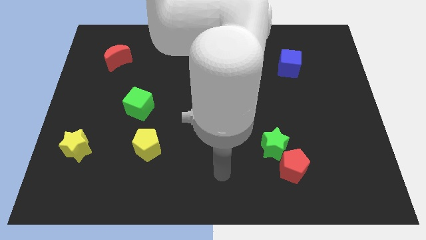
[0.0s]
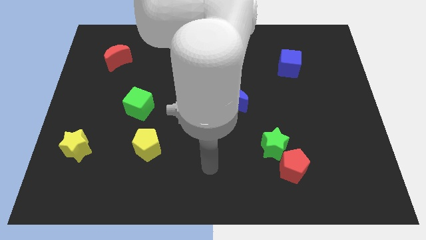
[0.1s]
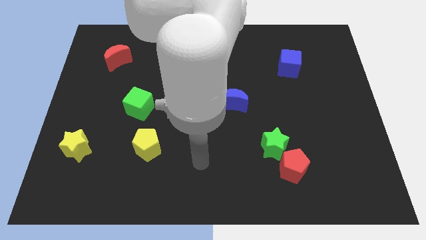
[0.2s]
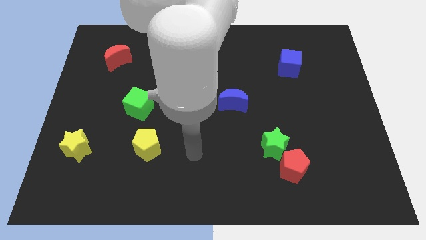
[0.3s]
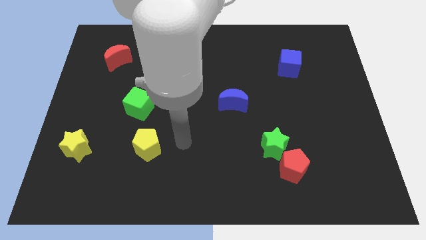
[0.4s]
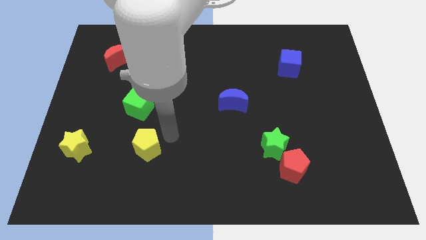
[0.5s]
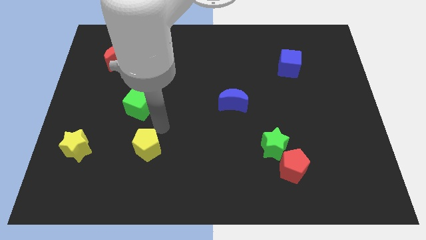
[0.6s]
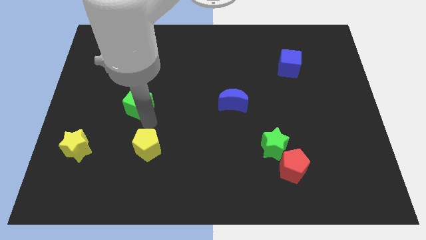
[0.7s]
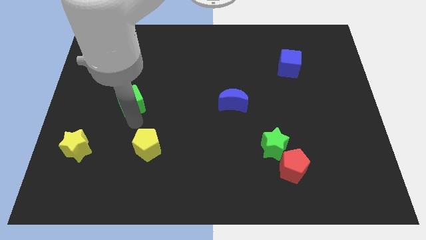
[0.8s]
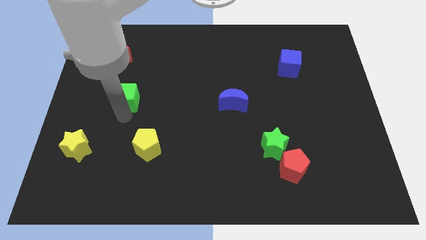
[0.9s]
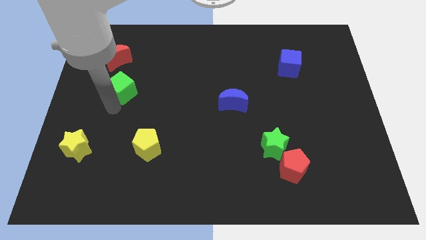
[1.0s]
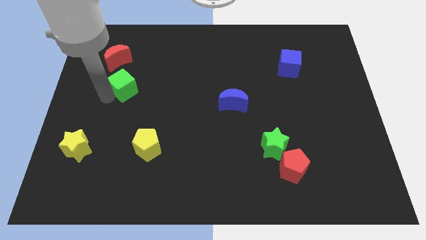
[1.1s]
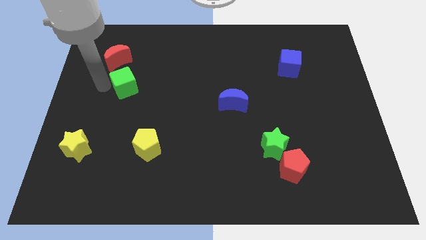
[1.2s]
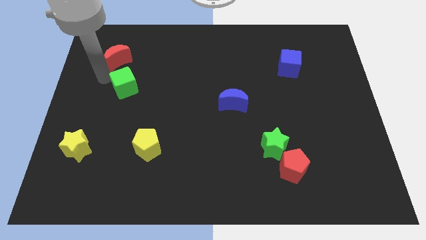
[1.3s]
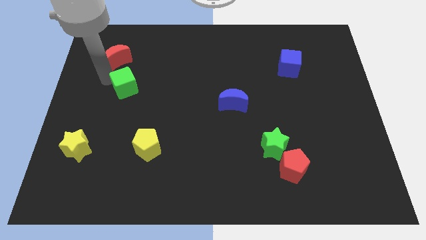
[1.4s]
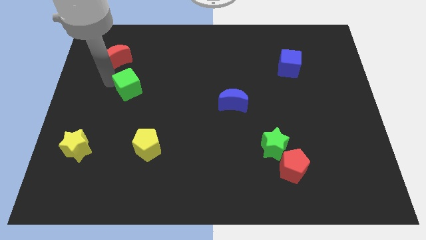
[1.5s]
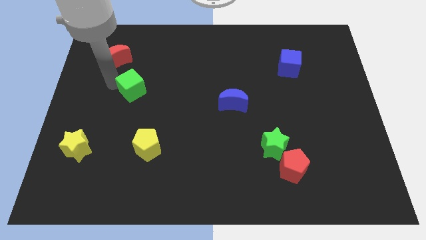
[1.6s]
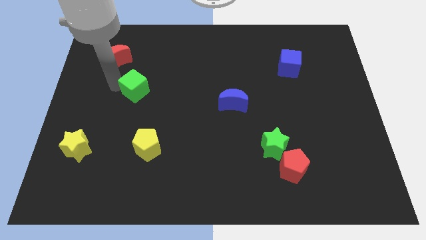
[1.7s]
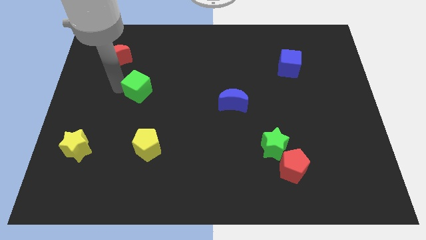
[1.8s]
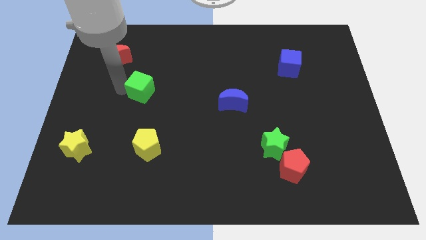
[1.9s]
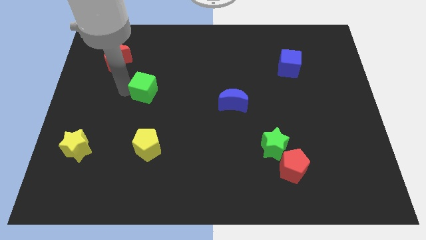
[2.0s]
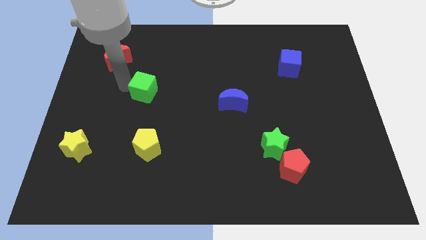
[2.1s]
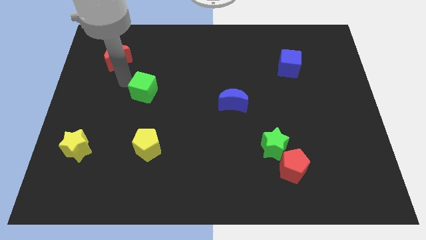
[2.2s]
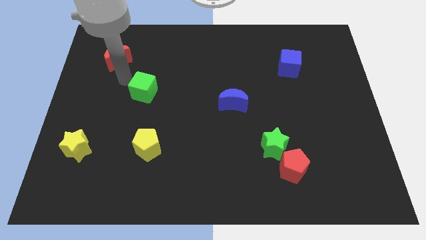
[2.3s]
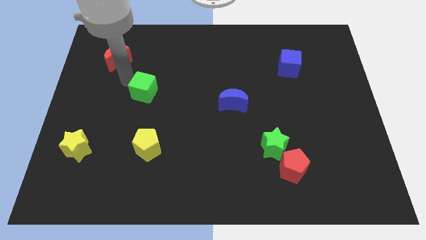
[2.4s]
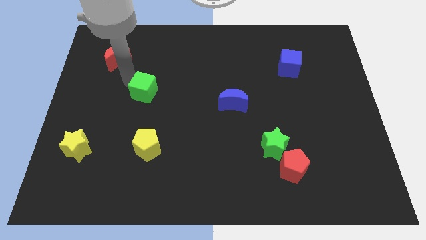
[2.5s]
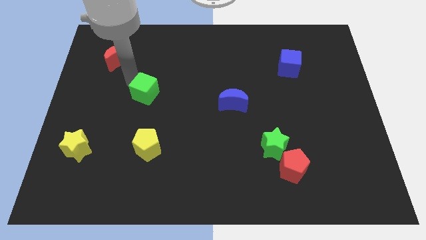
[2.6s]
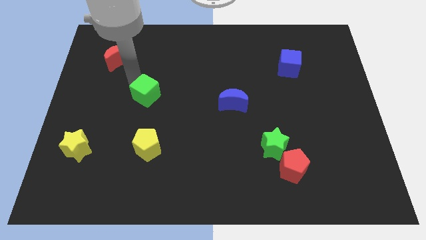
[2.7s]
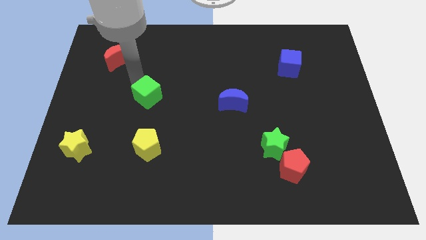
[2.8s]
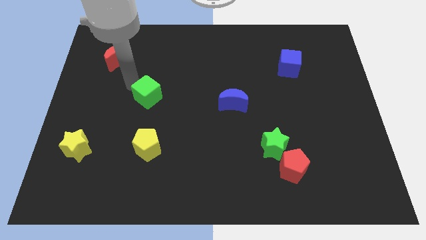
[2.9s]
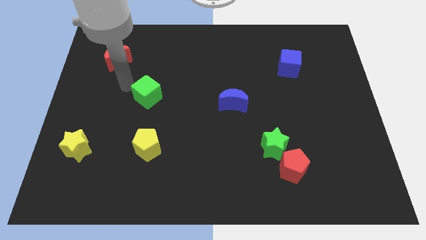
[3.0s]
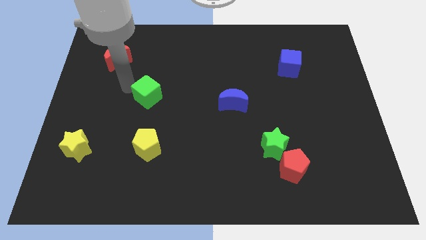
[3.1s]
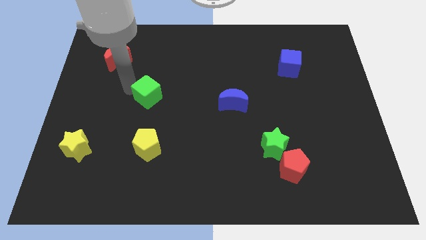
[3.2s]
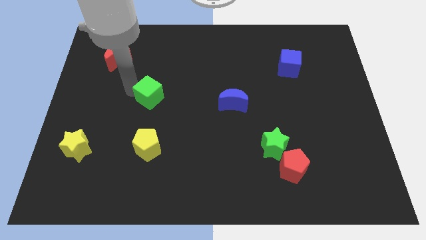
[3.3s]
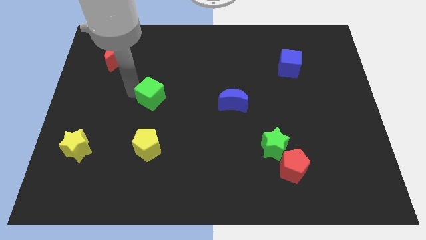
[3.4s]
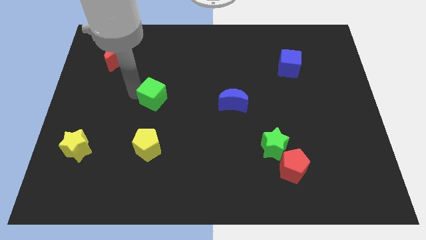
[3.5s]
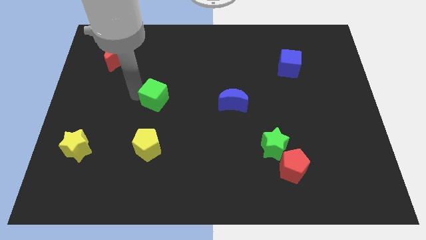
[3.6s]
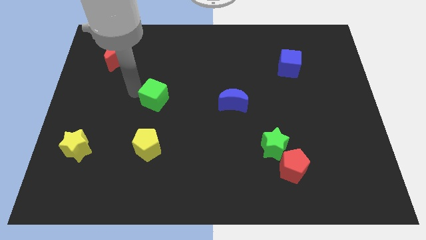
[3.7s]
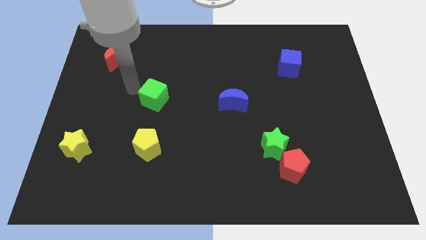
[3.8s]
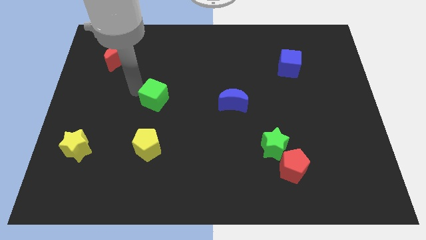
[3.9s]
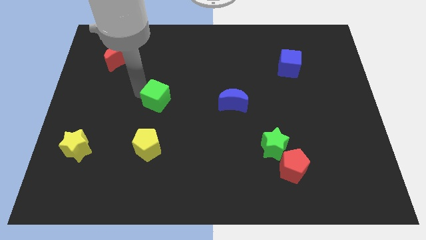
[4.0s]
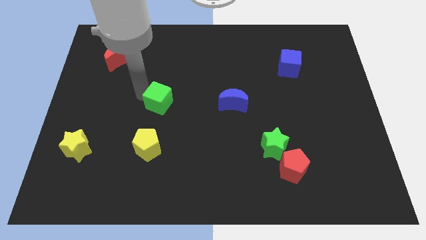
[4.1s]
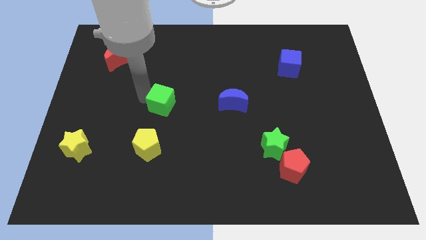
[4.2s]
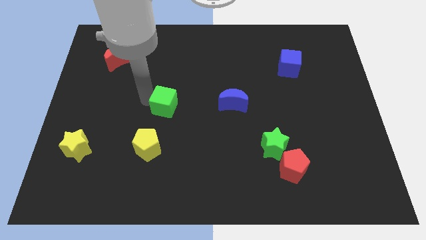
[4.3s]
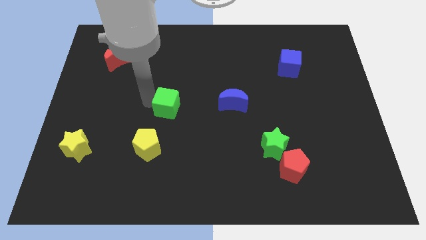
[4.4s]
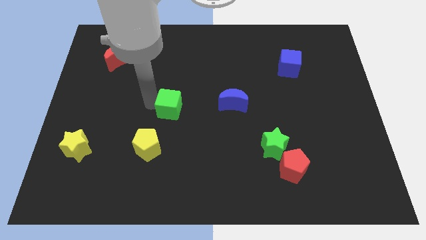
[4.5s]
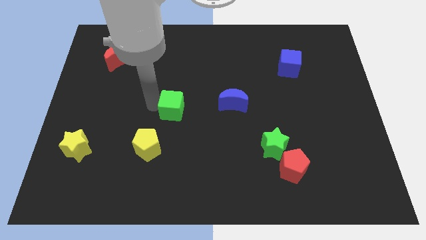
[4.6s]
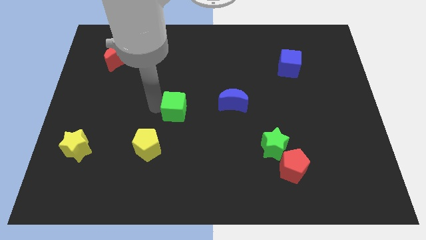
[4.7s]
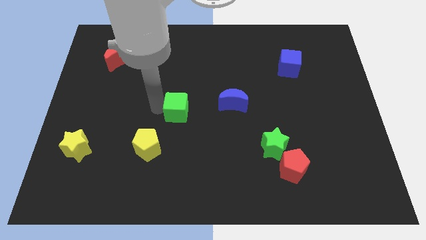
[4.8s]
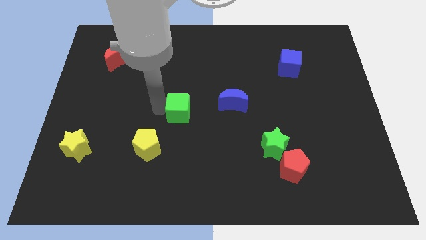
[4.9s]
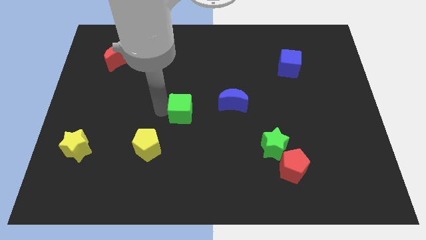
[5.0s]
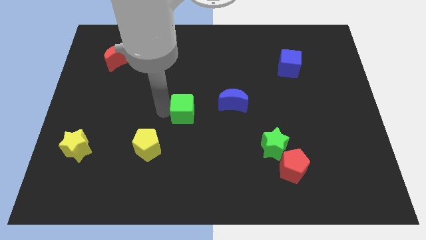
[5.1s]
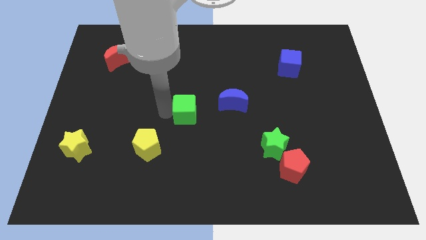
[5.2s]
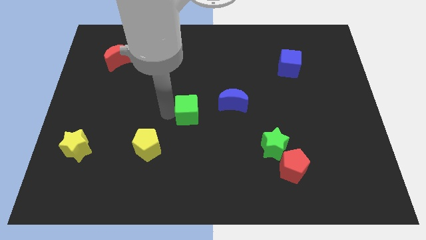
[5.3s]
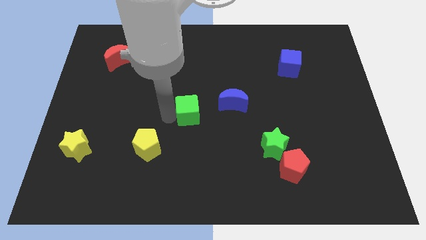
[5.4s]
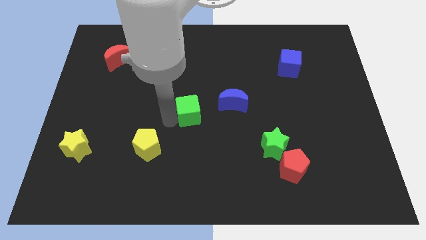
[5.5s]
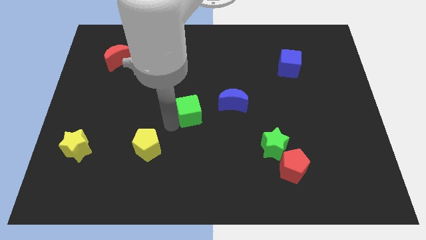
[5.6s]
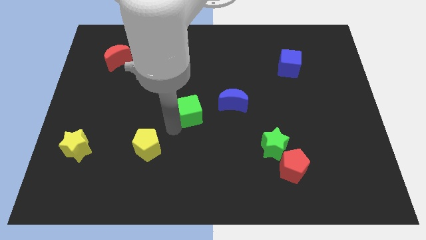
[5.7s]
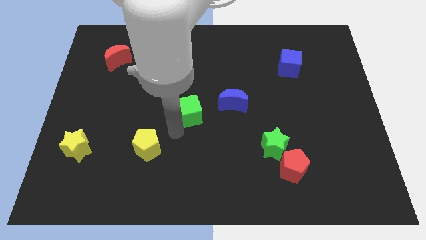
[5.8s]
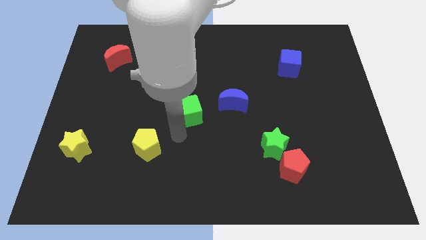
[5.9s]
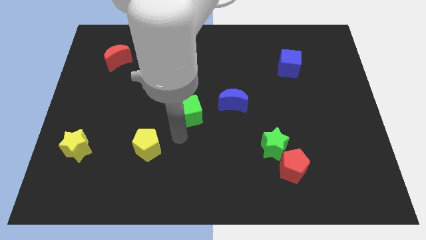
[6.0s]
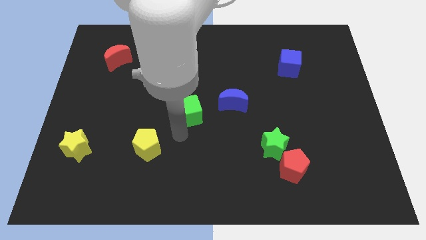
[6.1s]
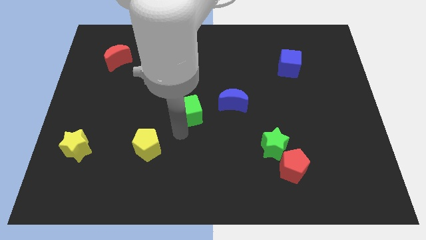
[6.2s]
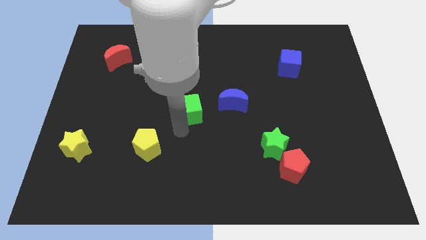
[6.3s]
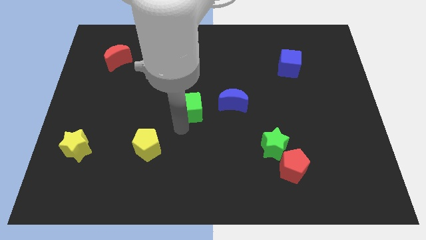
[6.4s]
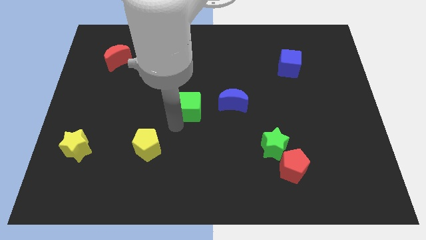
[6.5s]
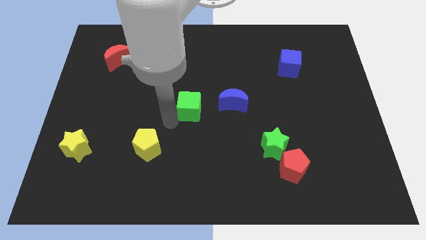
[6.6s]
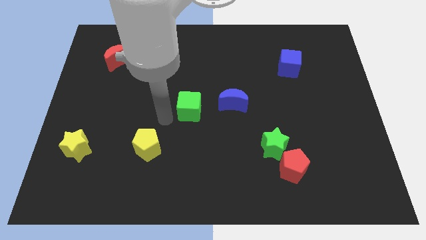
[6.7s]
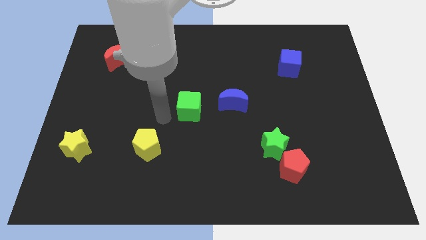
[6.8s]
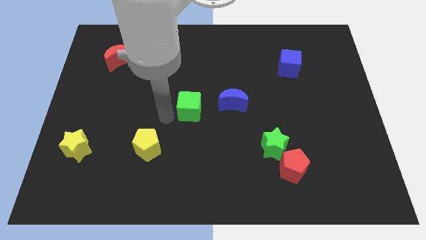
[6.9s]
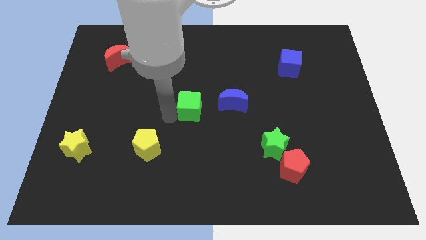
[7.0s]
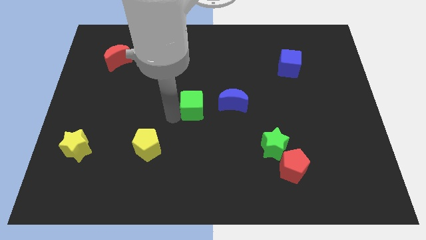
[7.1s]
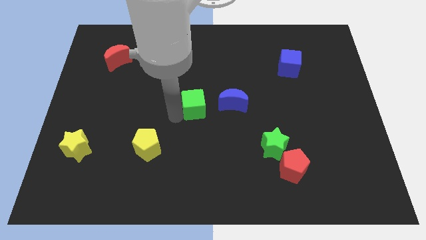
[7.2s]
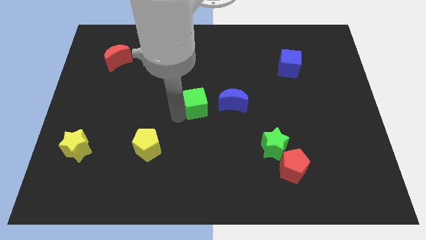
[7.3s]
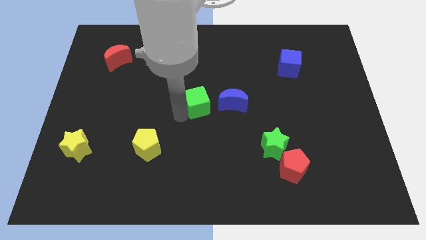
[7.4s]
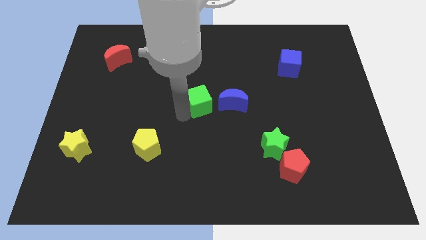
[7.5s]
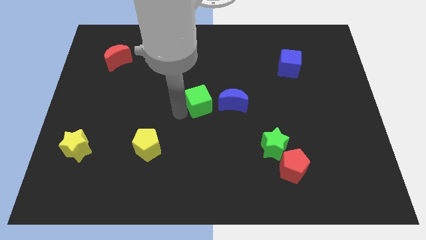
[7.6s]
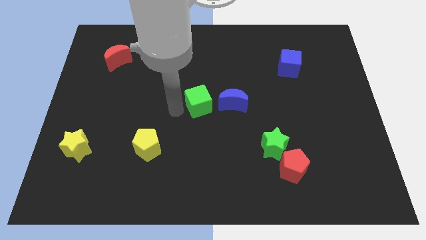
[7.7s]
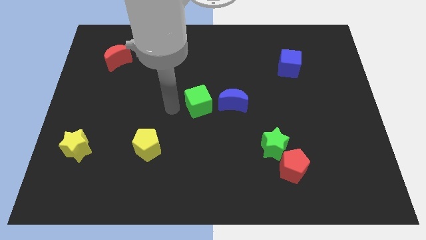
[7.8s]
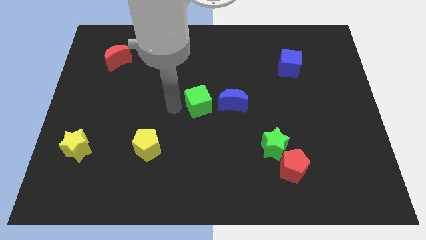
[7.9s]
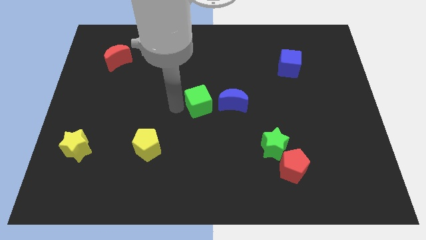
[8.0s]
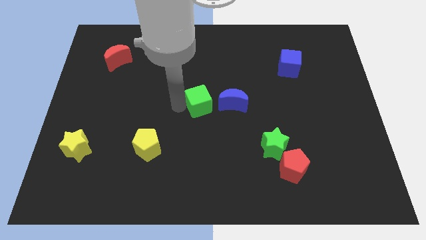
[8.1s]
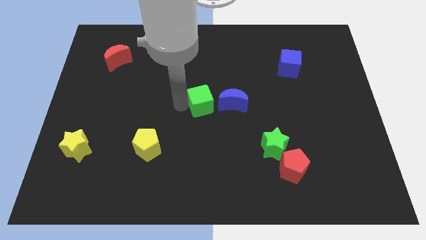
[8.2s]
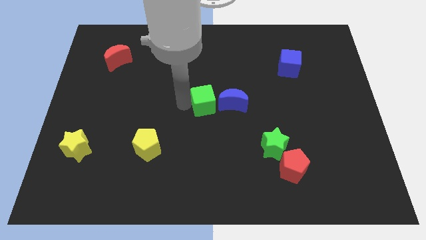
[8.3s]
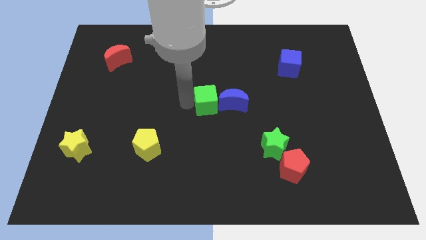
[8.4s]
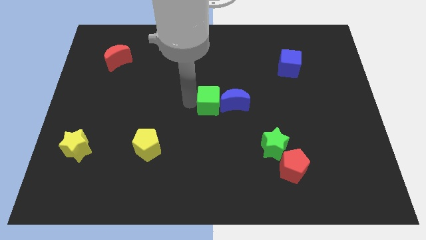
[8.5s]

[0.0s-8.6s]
push the green cube to the blue moon
